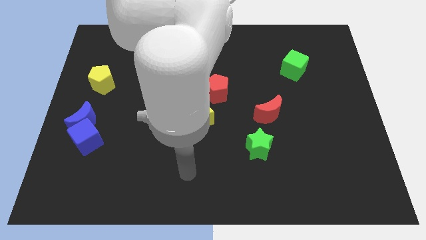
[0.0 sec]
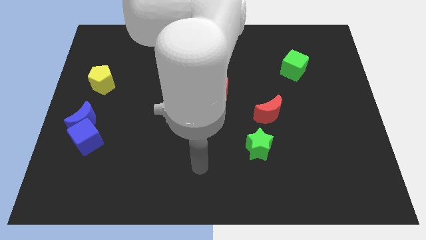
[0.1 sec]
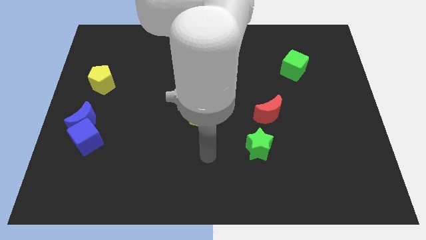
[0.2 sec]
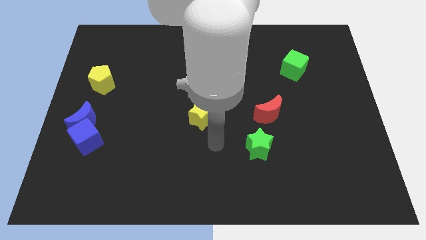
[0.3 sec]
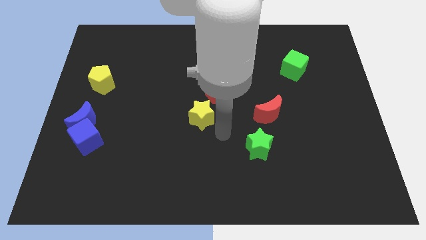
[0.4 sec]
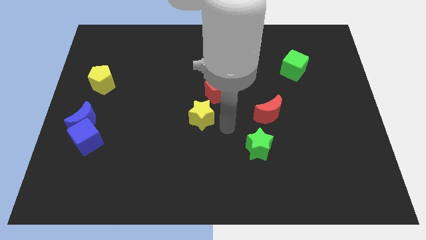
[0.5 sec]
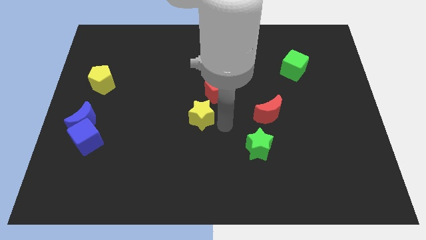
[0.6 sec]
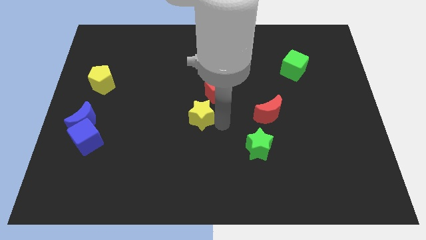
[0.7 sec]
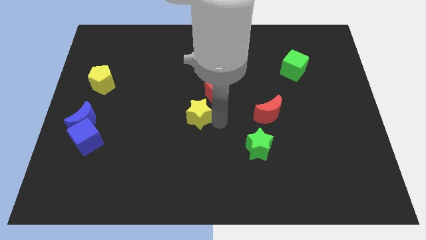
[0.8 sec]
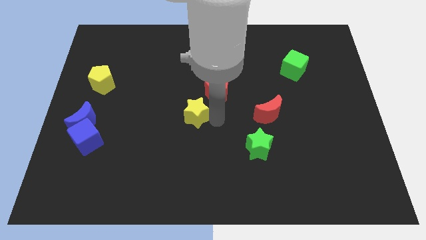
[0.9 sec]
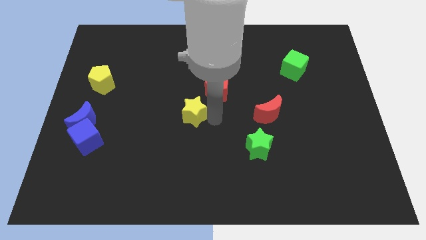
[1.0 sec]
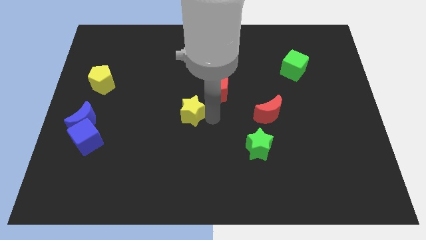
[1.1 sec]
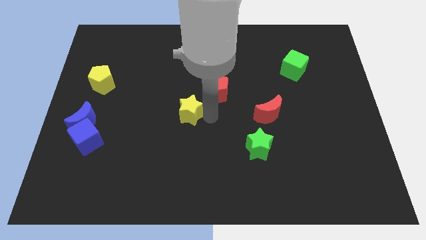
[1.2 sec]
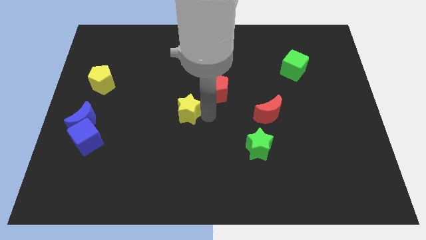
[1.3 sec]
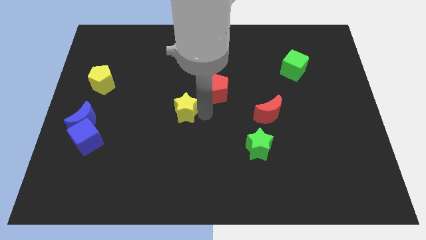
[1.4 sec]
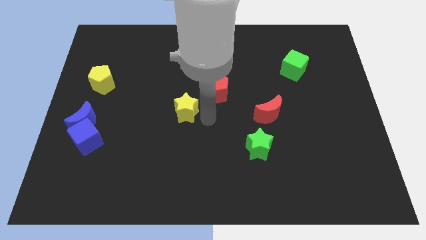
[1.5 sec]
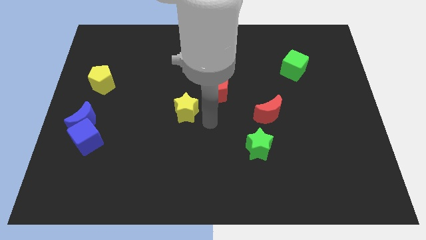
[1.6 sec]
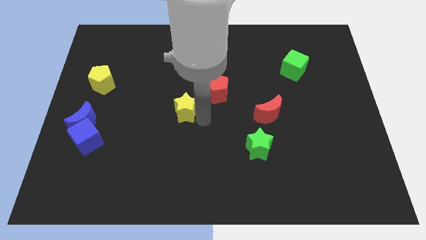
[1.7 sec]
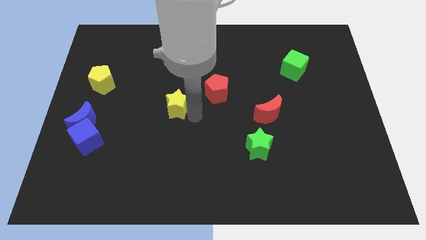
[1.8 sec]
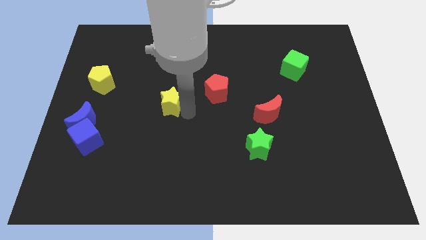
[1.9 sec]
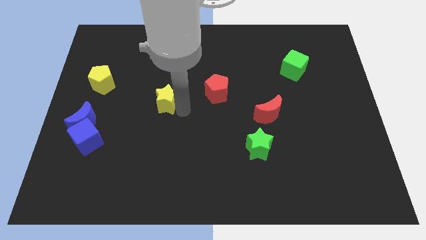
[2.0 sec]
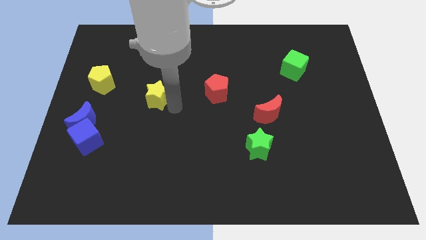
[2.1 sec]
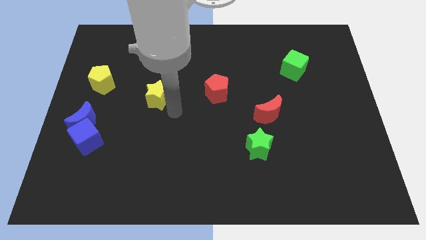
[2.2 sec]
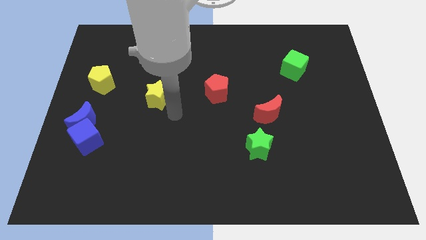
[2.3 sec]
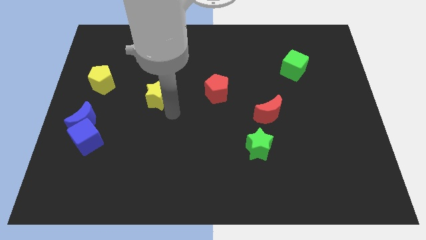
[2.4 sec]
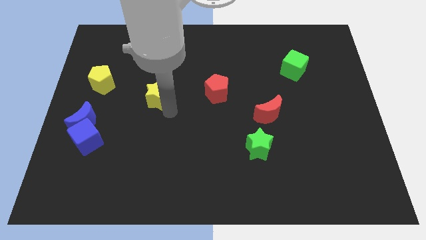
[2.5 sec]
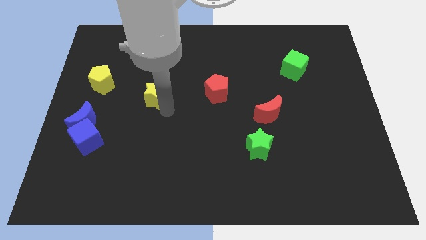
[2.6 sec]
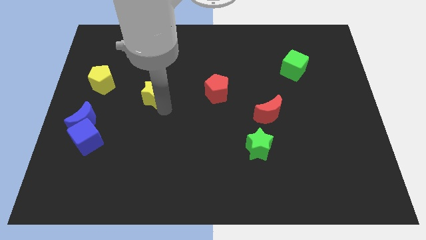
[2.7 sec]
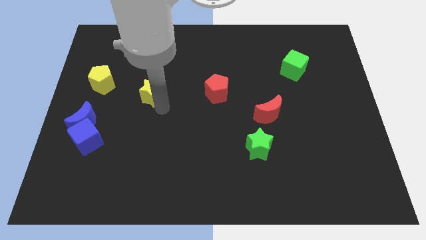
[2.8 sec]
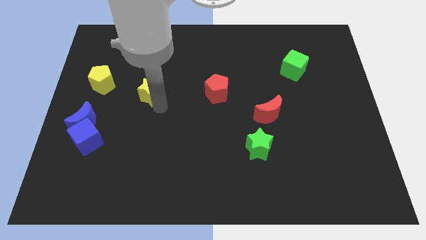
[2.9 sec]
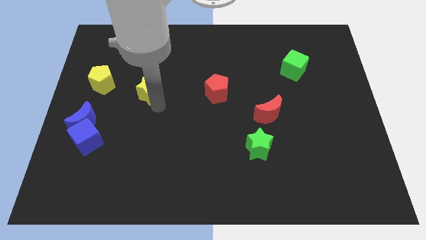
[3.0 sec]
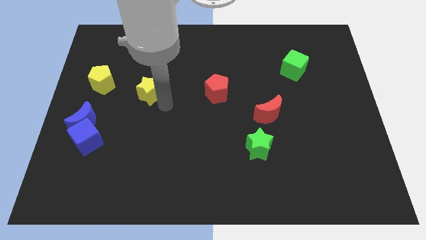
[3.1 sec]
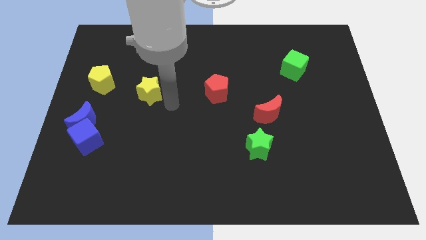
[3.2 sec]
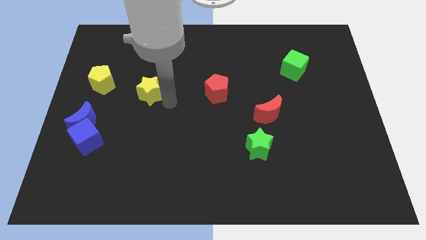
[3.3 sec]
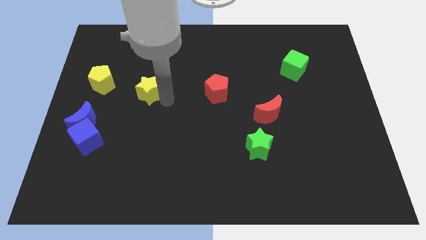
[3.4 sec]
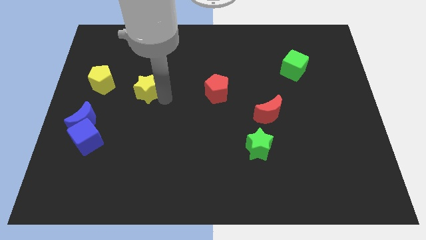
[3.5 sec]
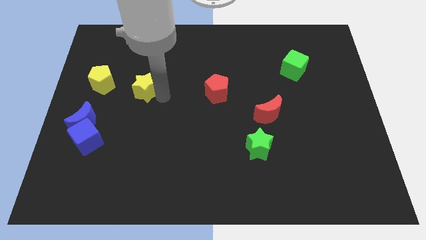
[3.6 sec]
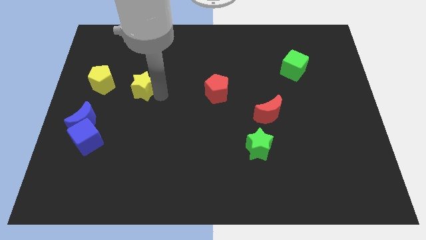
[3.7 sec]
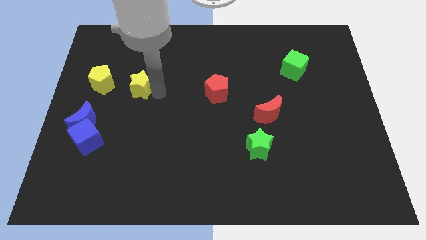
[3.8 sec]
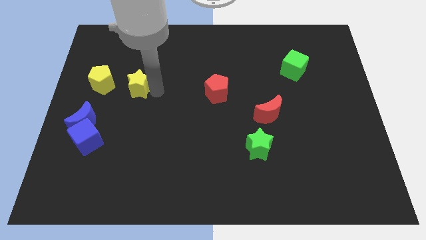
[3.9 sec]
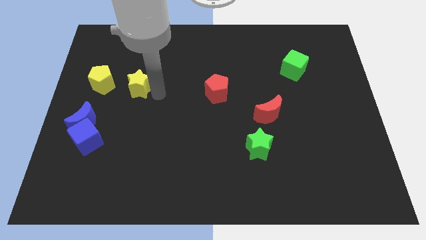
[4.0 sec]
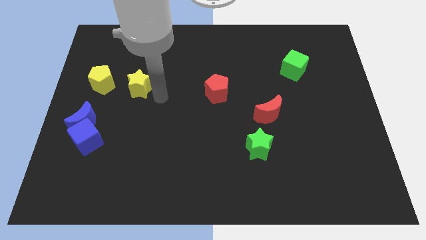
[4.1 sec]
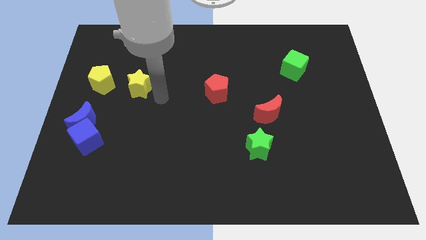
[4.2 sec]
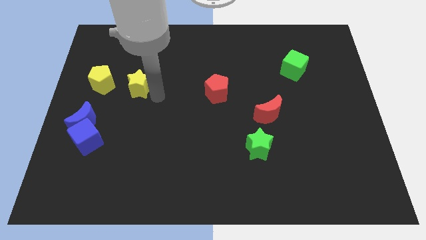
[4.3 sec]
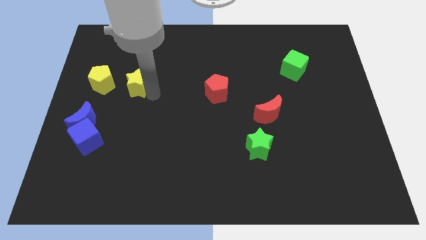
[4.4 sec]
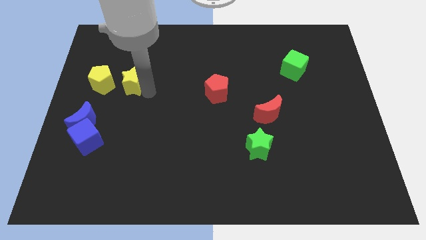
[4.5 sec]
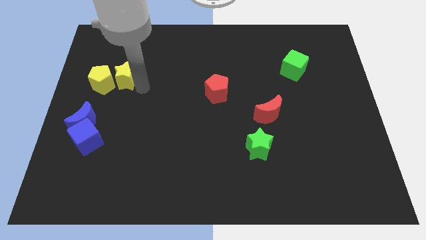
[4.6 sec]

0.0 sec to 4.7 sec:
slide the yellow star to the yellow pentagon

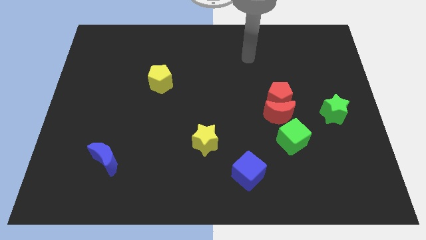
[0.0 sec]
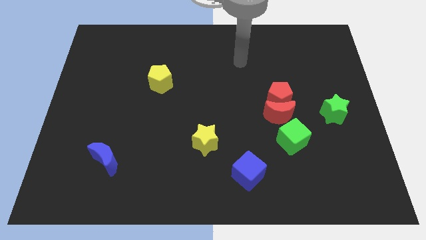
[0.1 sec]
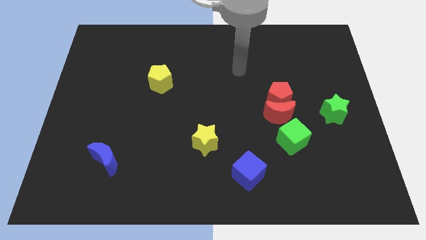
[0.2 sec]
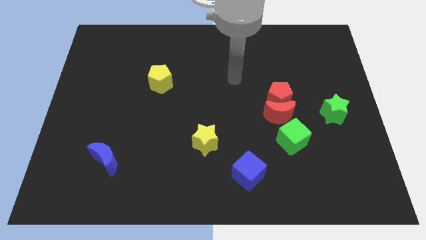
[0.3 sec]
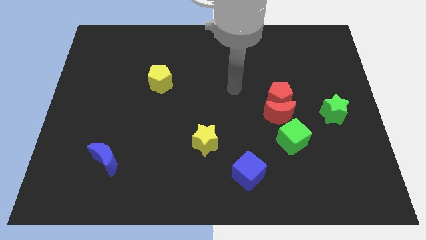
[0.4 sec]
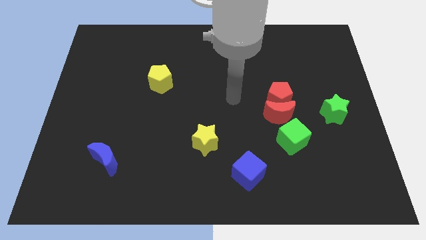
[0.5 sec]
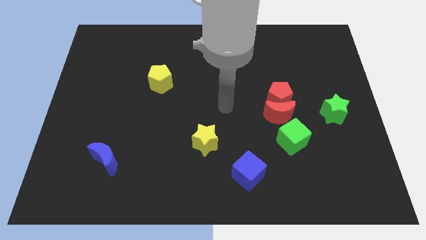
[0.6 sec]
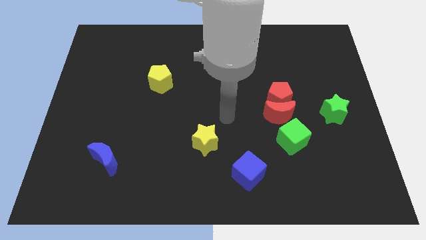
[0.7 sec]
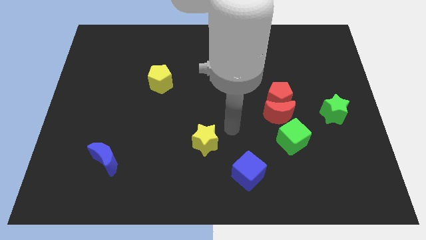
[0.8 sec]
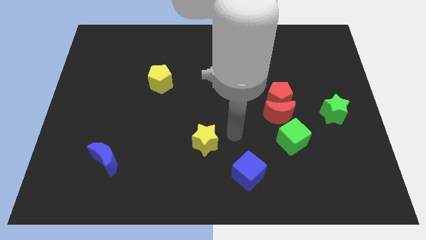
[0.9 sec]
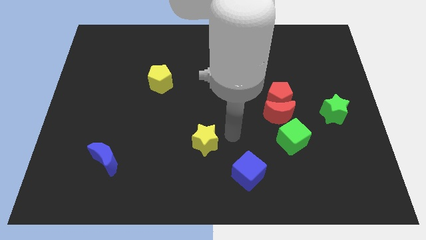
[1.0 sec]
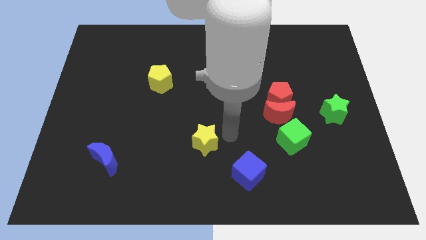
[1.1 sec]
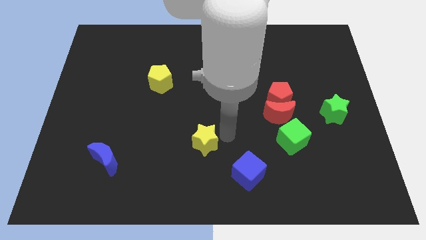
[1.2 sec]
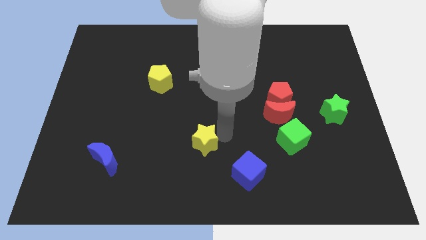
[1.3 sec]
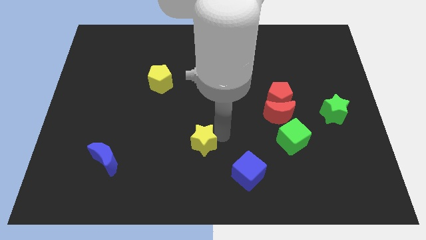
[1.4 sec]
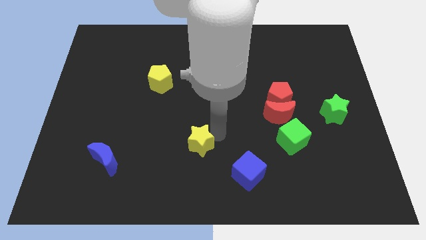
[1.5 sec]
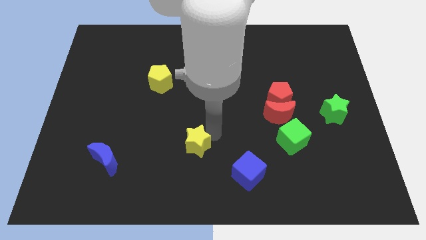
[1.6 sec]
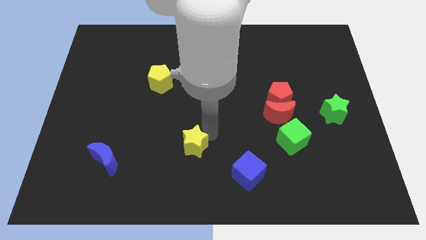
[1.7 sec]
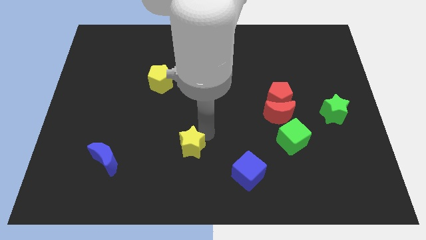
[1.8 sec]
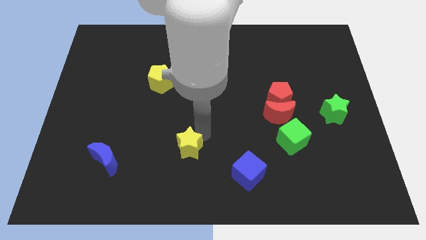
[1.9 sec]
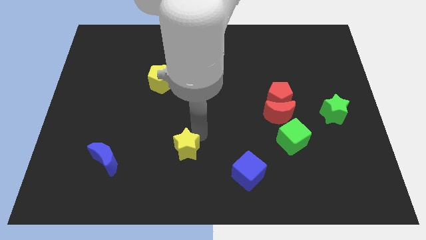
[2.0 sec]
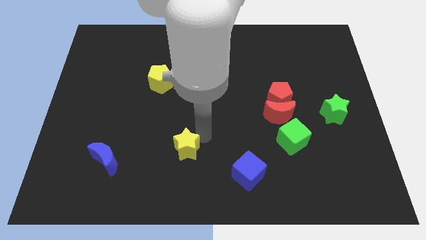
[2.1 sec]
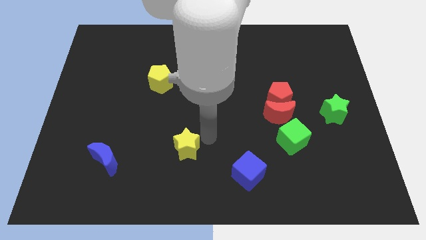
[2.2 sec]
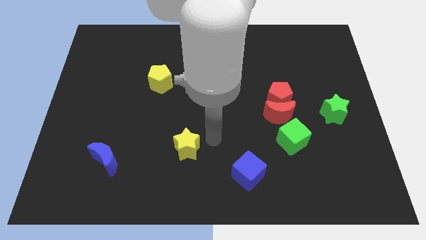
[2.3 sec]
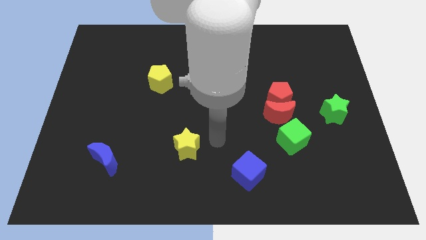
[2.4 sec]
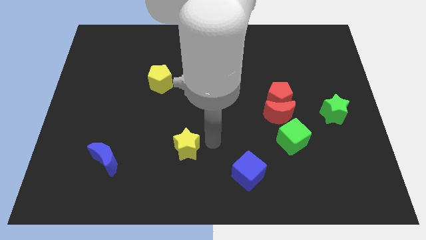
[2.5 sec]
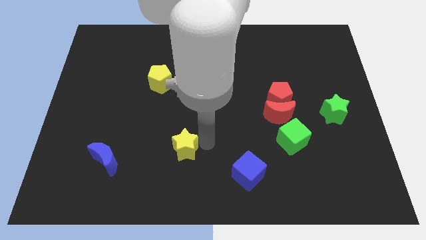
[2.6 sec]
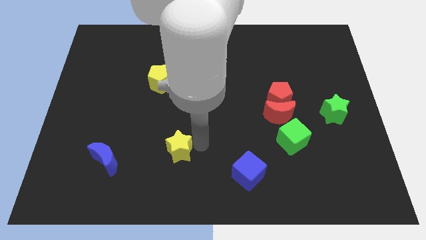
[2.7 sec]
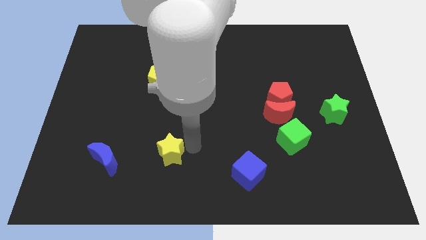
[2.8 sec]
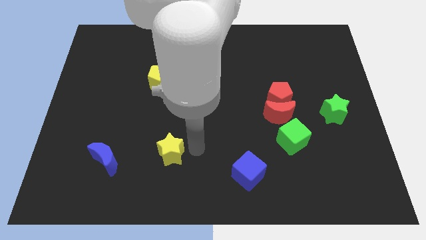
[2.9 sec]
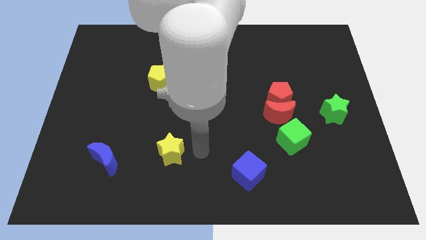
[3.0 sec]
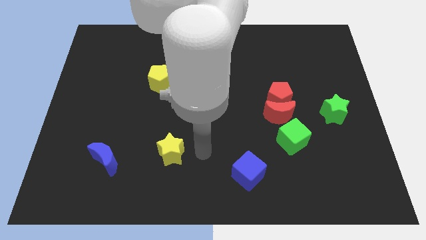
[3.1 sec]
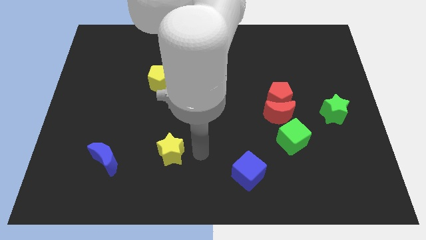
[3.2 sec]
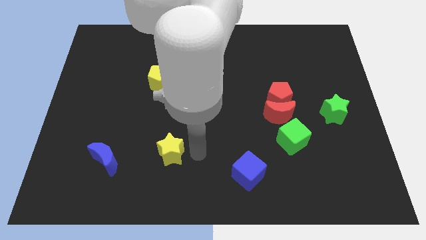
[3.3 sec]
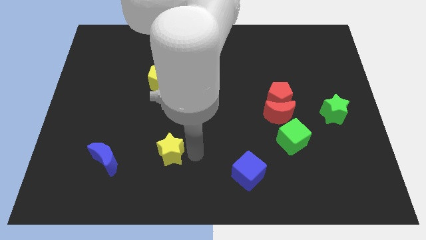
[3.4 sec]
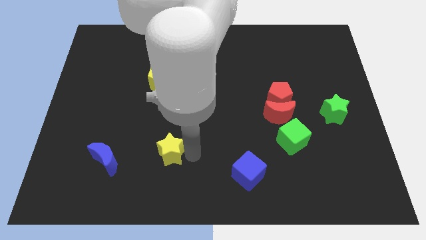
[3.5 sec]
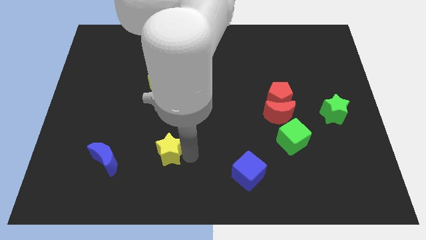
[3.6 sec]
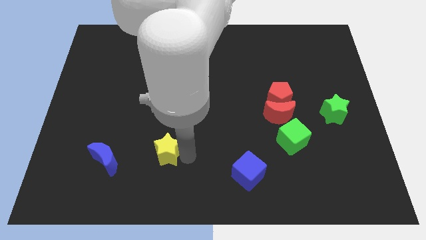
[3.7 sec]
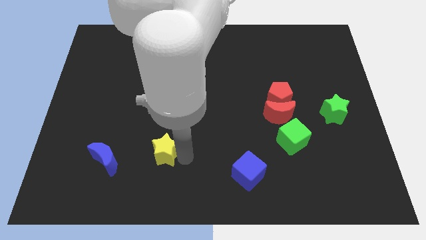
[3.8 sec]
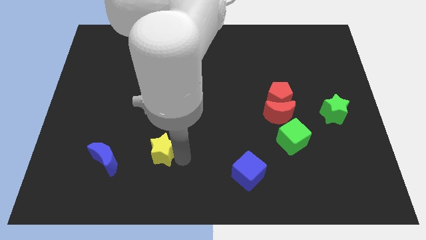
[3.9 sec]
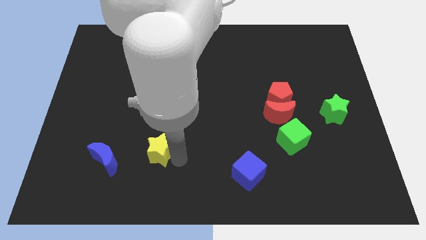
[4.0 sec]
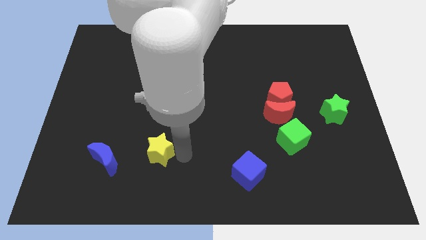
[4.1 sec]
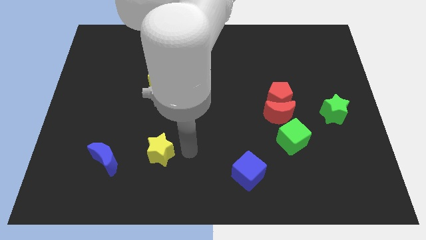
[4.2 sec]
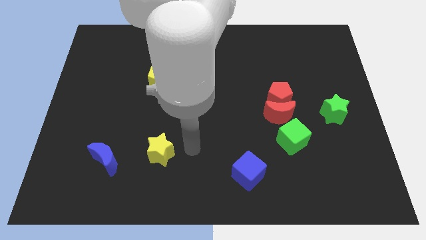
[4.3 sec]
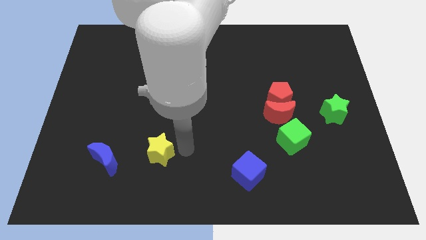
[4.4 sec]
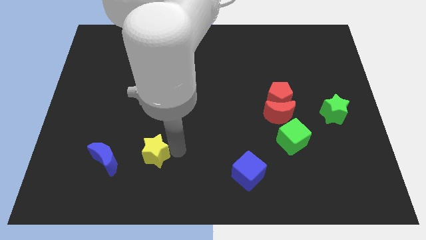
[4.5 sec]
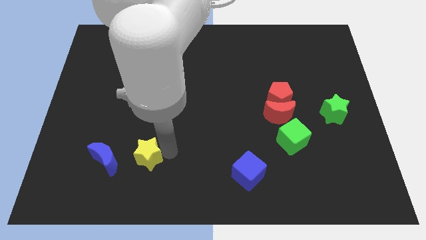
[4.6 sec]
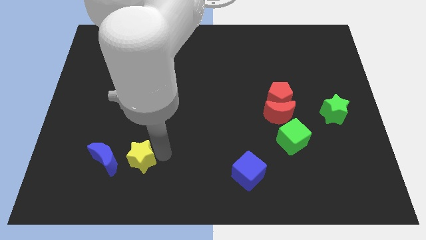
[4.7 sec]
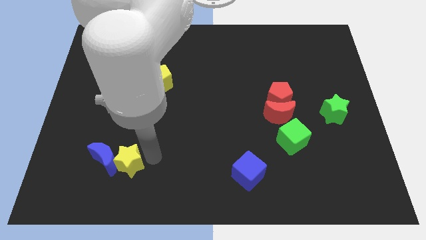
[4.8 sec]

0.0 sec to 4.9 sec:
put the yellow star close to the blue moon
